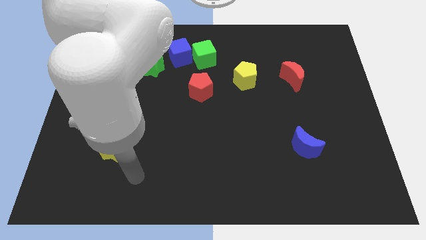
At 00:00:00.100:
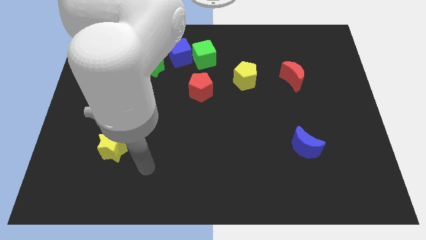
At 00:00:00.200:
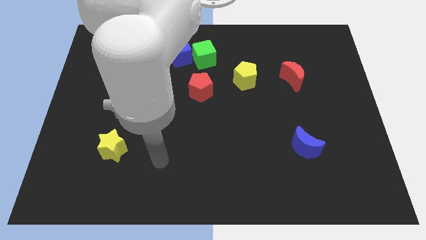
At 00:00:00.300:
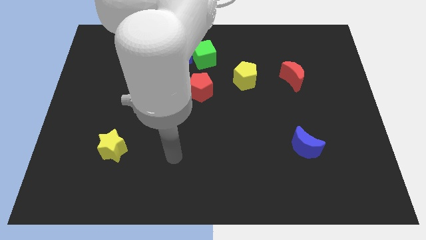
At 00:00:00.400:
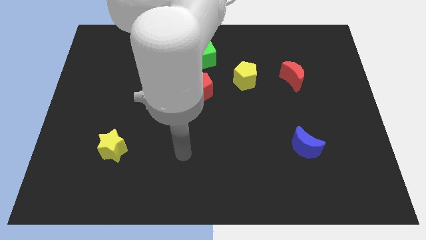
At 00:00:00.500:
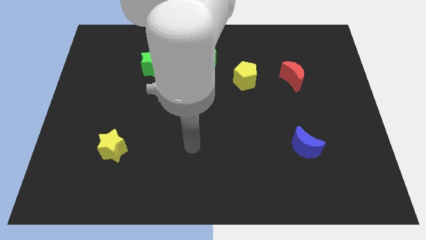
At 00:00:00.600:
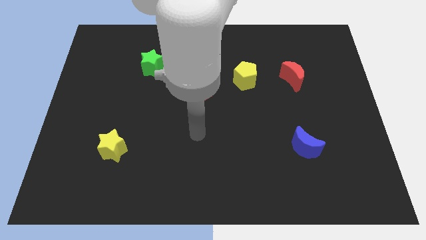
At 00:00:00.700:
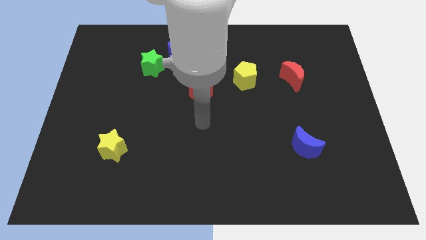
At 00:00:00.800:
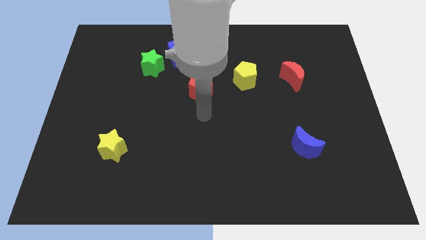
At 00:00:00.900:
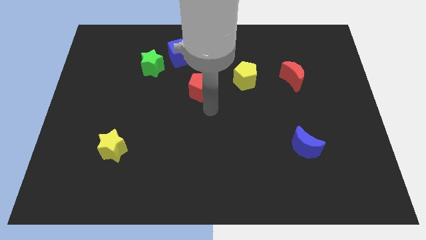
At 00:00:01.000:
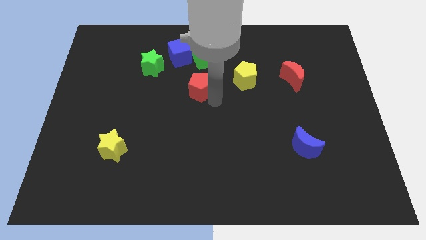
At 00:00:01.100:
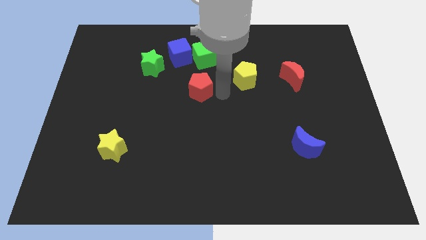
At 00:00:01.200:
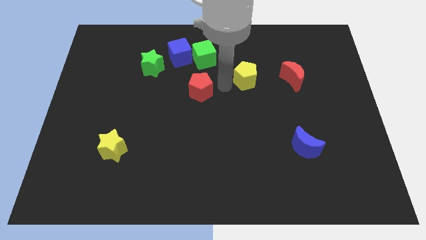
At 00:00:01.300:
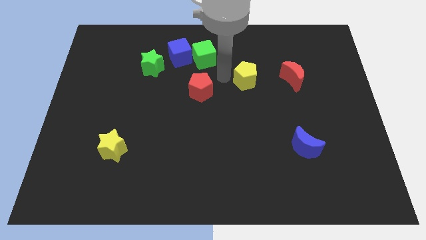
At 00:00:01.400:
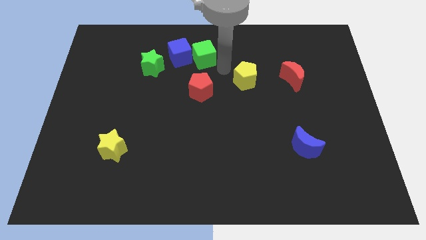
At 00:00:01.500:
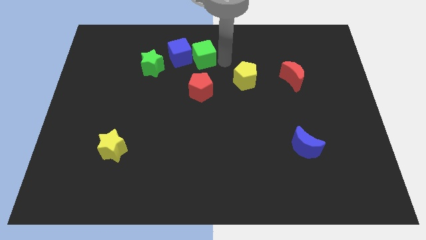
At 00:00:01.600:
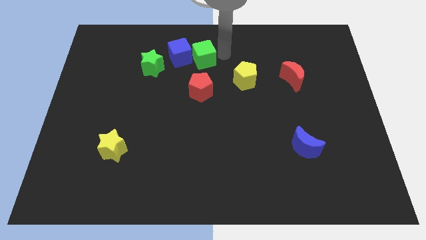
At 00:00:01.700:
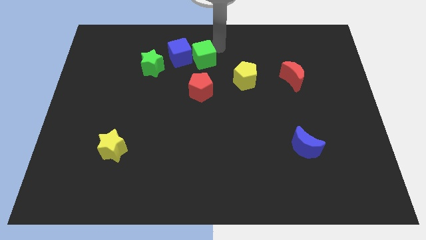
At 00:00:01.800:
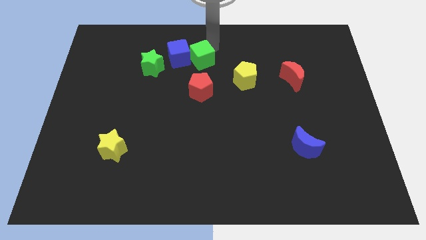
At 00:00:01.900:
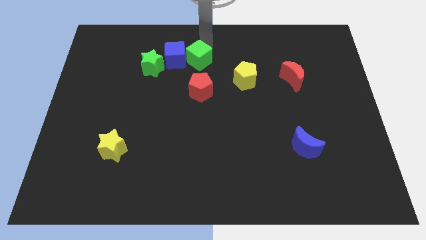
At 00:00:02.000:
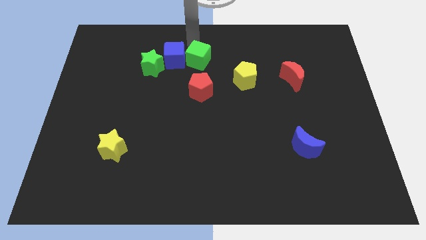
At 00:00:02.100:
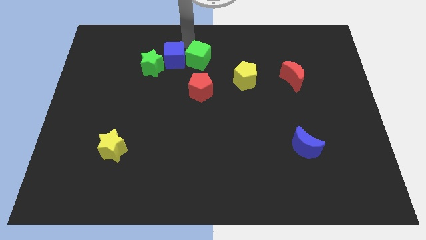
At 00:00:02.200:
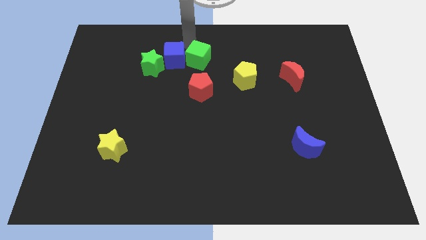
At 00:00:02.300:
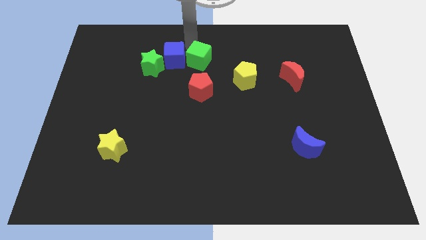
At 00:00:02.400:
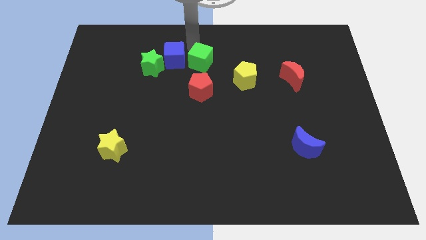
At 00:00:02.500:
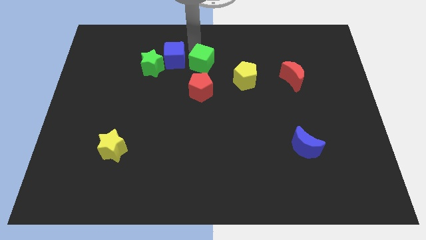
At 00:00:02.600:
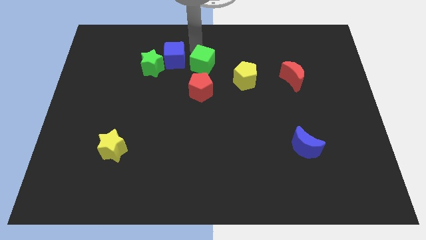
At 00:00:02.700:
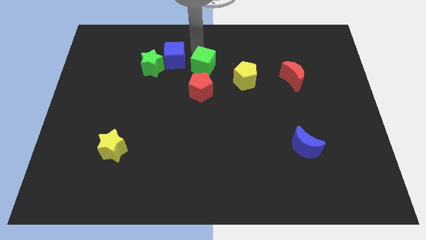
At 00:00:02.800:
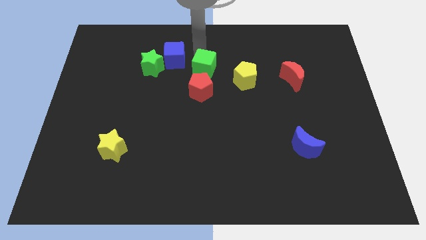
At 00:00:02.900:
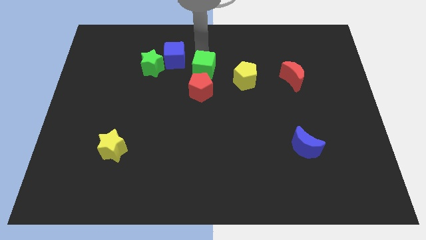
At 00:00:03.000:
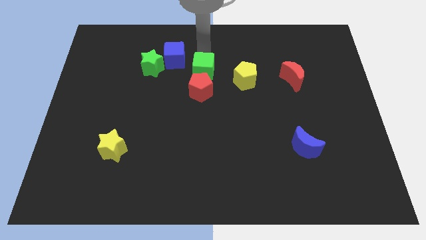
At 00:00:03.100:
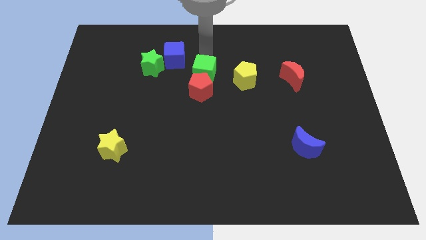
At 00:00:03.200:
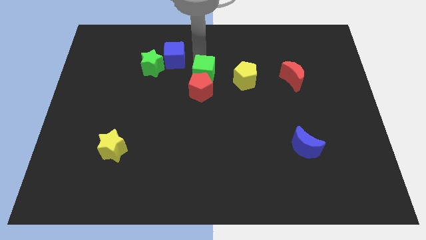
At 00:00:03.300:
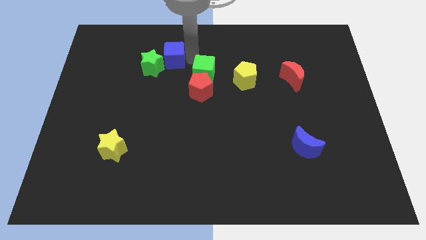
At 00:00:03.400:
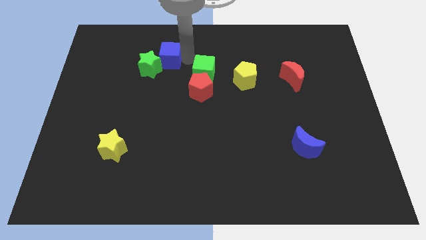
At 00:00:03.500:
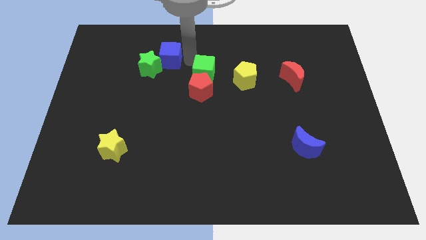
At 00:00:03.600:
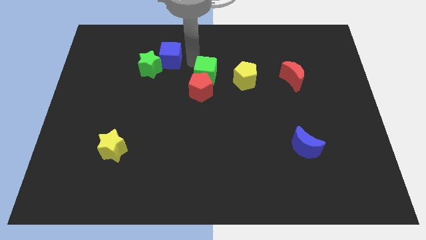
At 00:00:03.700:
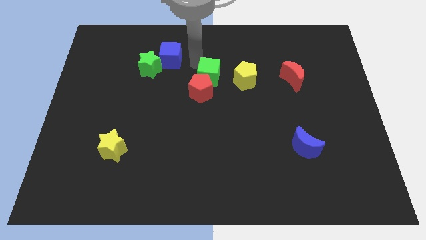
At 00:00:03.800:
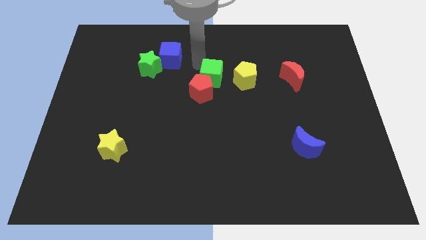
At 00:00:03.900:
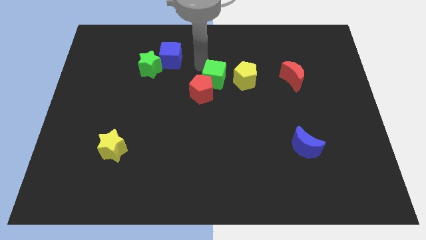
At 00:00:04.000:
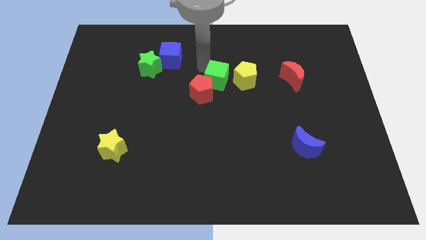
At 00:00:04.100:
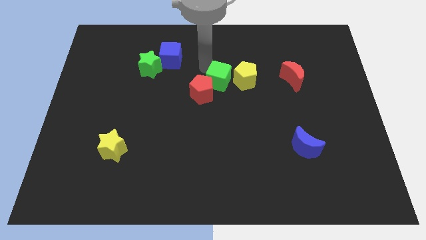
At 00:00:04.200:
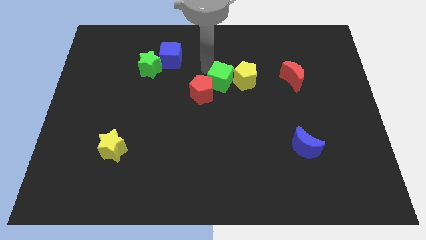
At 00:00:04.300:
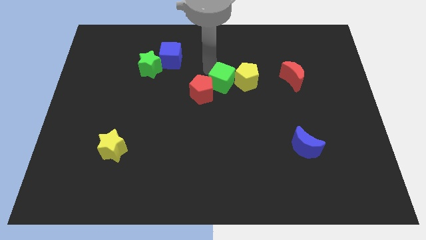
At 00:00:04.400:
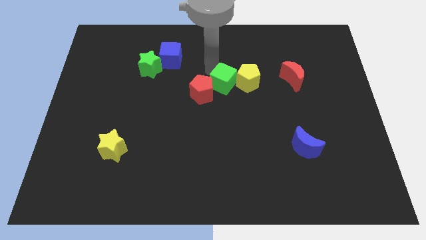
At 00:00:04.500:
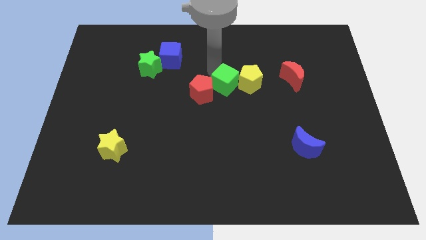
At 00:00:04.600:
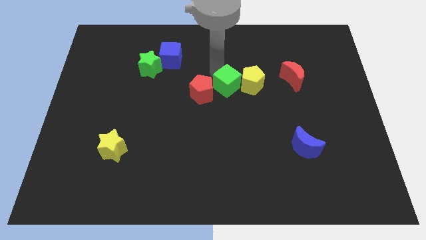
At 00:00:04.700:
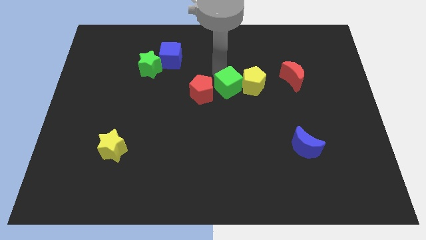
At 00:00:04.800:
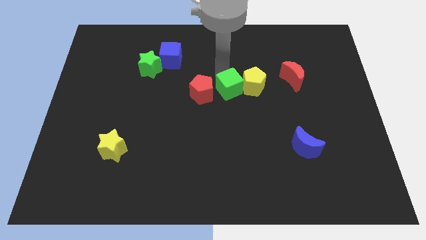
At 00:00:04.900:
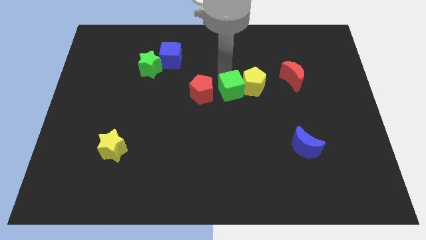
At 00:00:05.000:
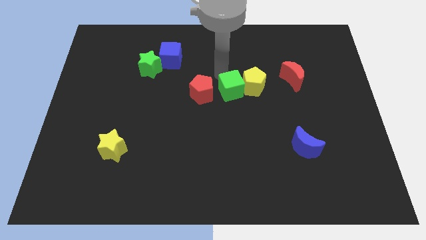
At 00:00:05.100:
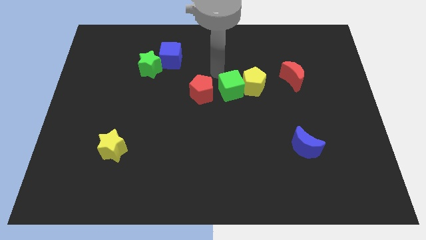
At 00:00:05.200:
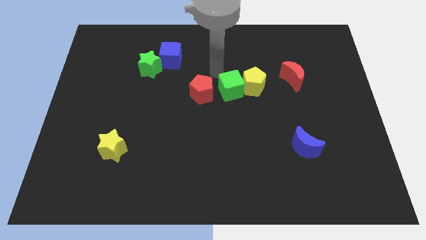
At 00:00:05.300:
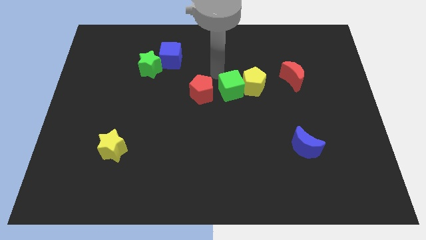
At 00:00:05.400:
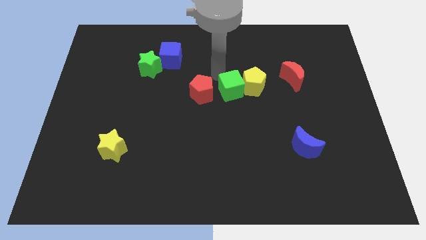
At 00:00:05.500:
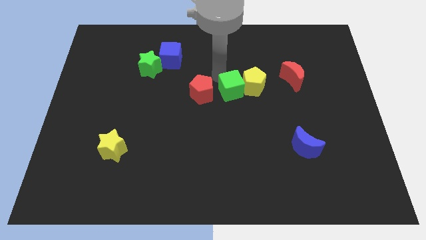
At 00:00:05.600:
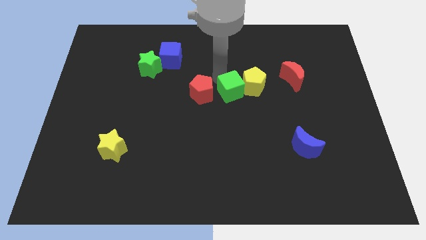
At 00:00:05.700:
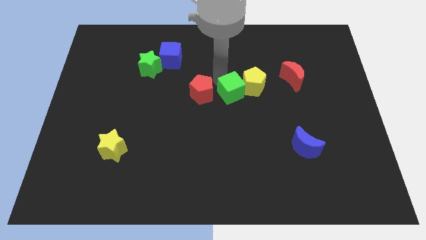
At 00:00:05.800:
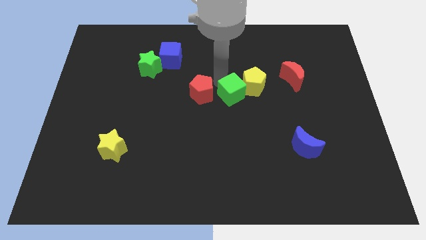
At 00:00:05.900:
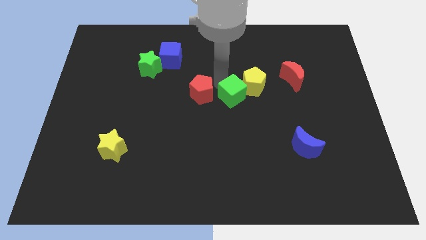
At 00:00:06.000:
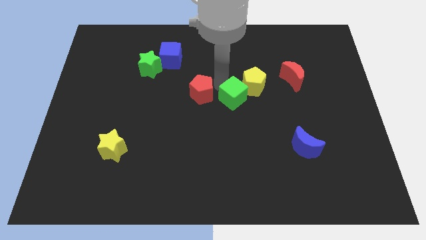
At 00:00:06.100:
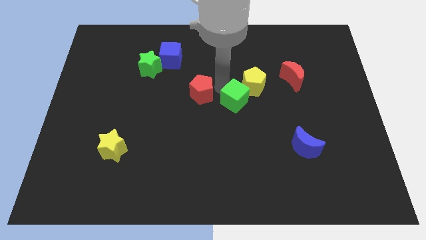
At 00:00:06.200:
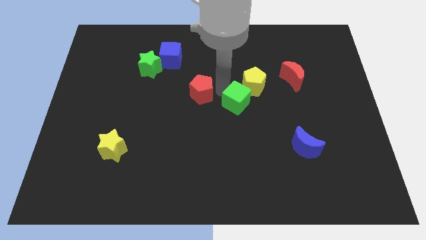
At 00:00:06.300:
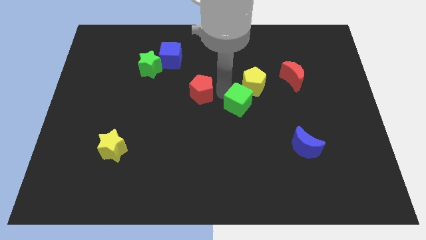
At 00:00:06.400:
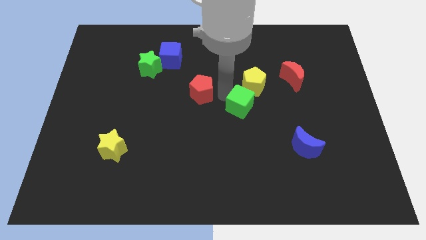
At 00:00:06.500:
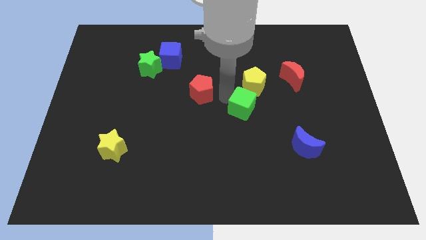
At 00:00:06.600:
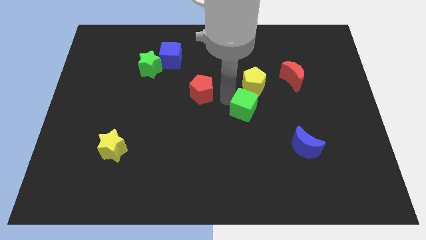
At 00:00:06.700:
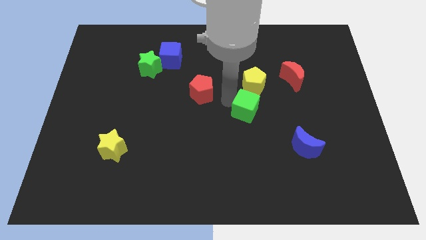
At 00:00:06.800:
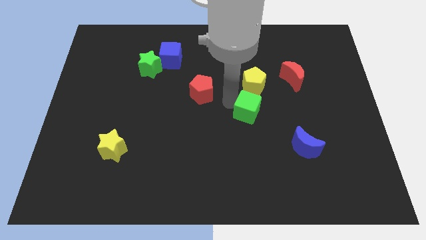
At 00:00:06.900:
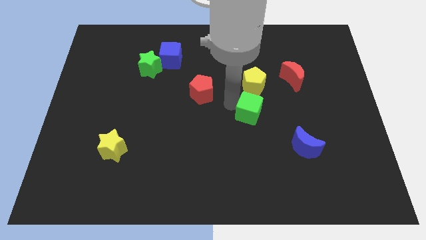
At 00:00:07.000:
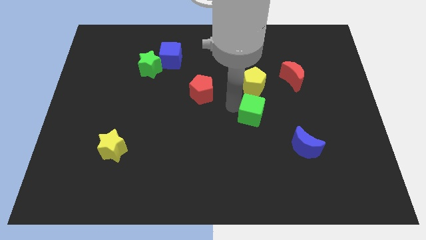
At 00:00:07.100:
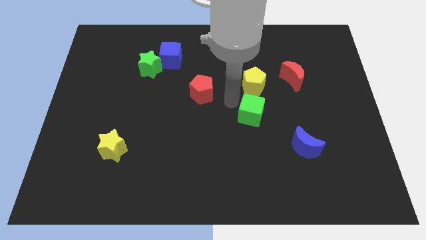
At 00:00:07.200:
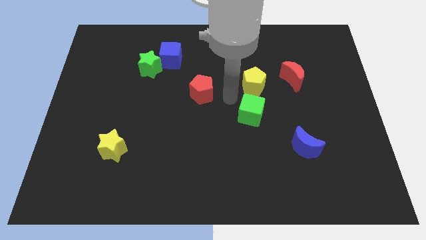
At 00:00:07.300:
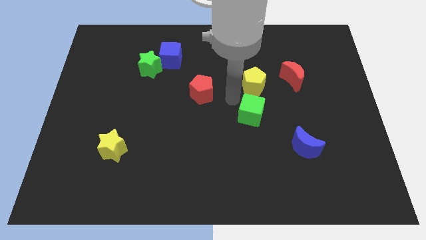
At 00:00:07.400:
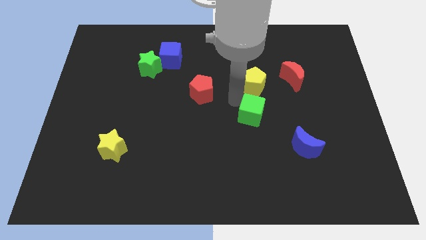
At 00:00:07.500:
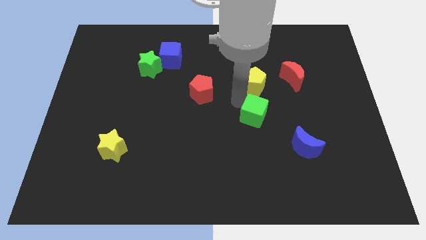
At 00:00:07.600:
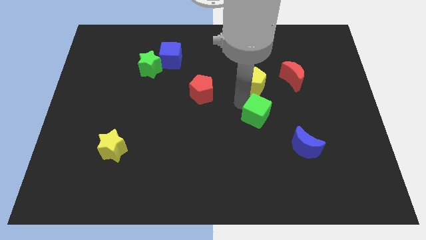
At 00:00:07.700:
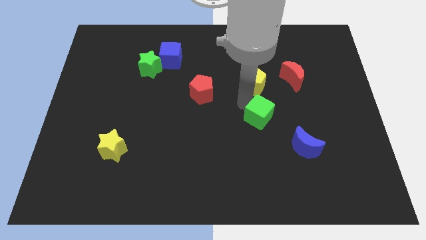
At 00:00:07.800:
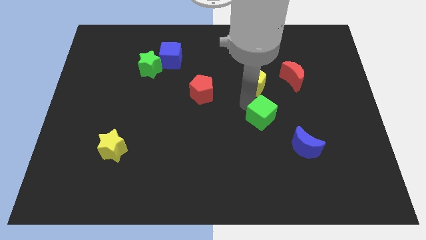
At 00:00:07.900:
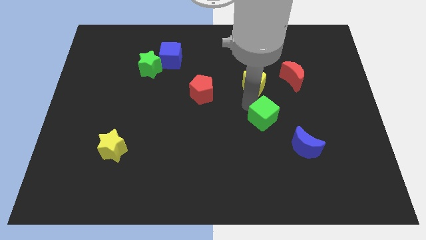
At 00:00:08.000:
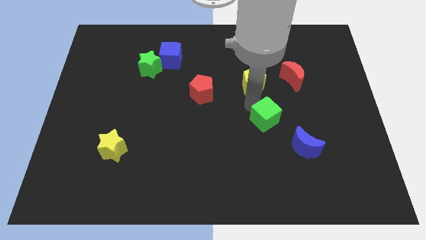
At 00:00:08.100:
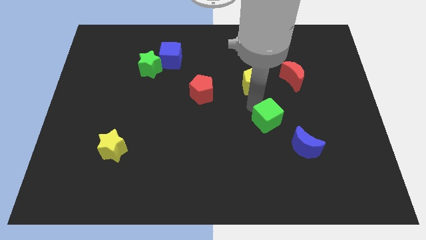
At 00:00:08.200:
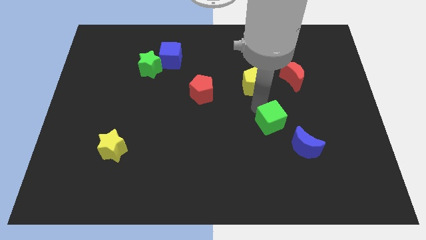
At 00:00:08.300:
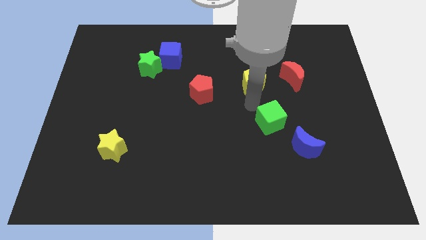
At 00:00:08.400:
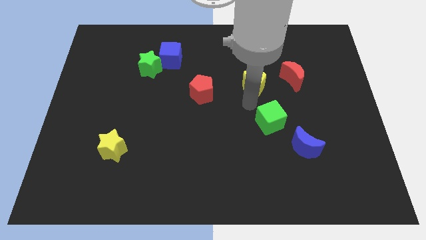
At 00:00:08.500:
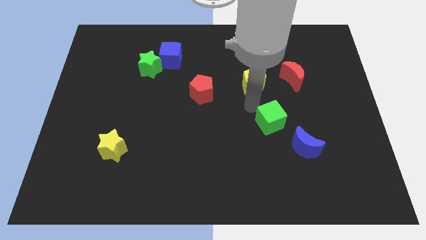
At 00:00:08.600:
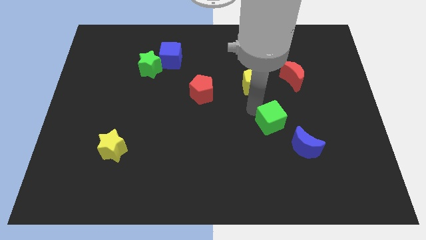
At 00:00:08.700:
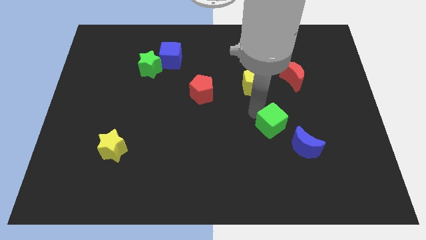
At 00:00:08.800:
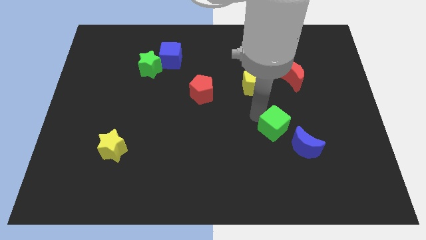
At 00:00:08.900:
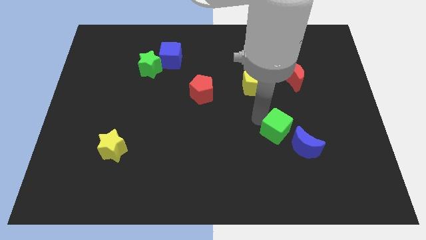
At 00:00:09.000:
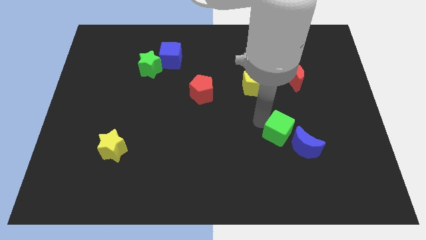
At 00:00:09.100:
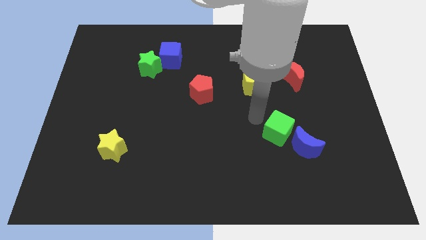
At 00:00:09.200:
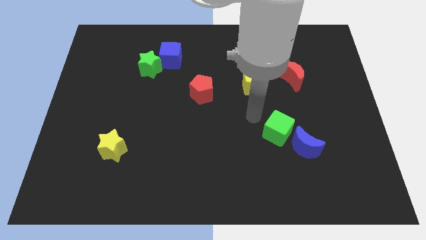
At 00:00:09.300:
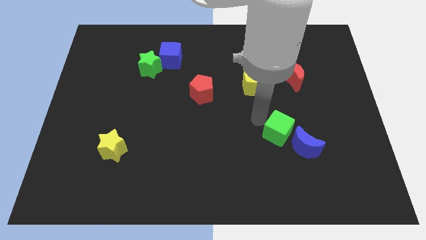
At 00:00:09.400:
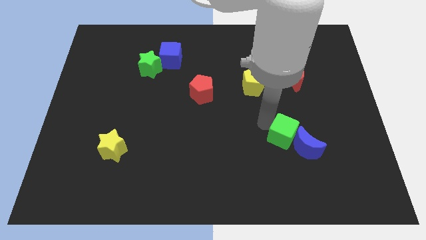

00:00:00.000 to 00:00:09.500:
push the green cube to the blue moon
